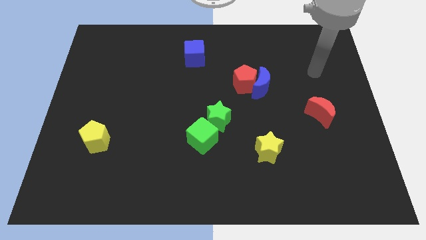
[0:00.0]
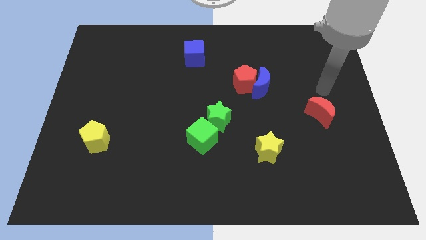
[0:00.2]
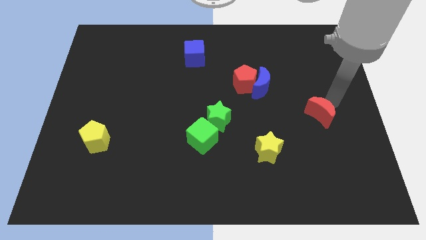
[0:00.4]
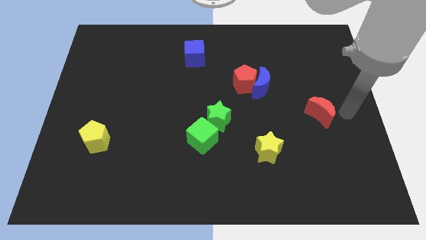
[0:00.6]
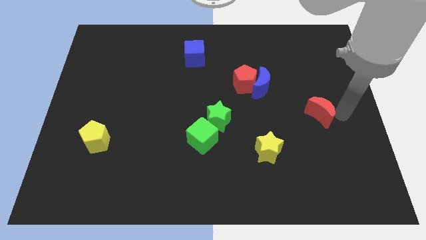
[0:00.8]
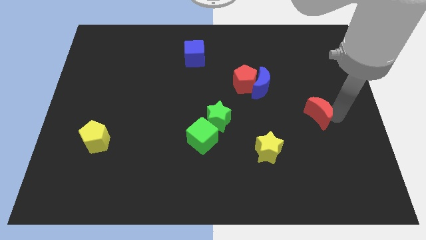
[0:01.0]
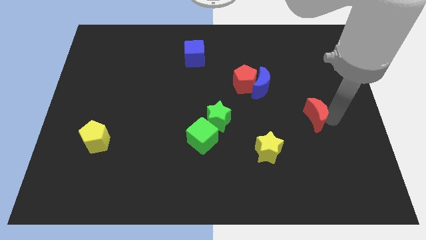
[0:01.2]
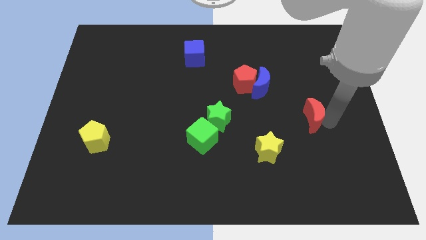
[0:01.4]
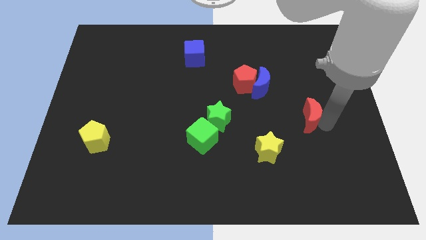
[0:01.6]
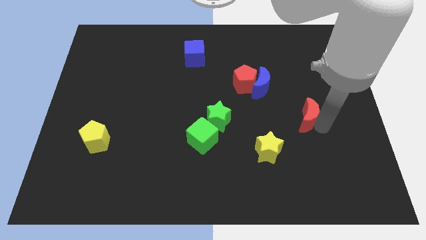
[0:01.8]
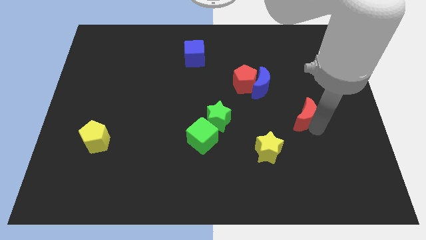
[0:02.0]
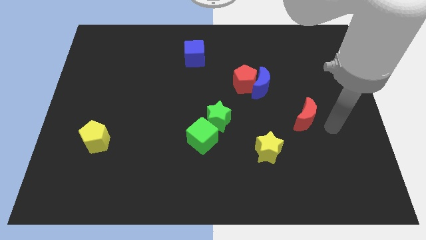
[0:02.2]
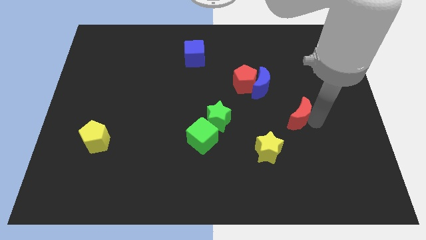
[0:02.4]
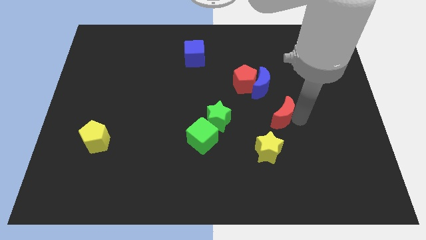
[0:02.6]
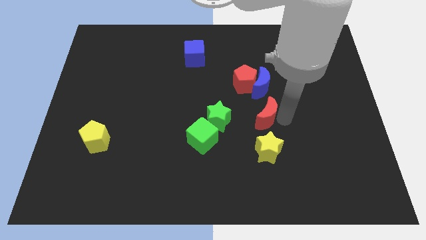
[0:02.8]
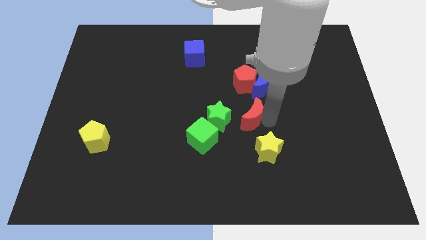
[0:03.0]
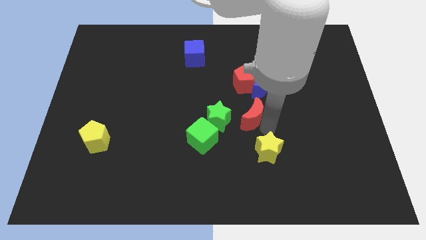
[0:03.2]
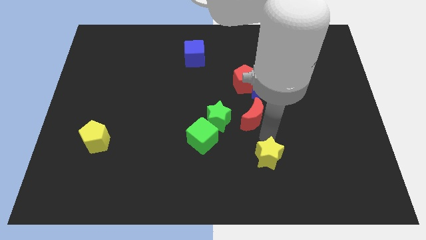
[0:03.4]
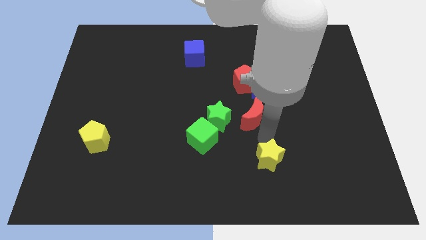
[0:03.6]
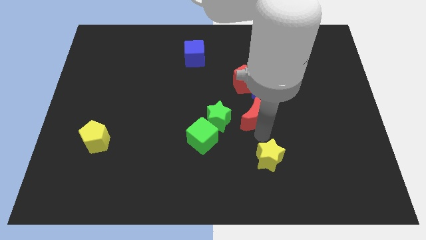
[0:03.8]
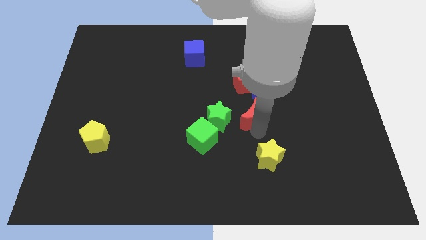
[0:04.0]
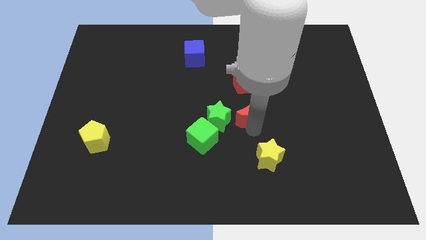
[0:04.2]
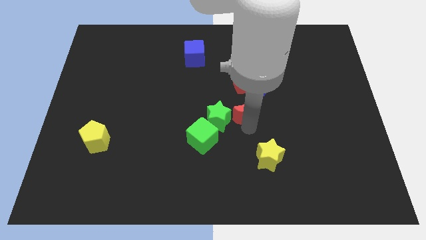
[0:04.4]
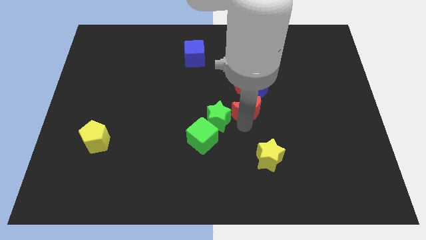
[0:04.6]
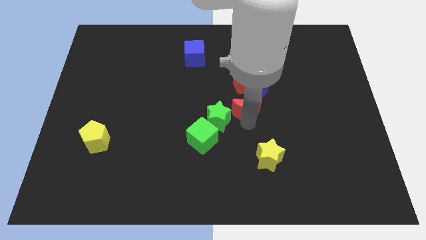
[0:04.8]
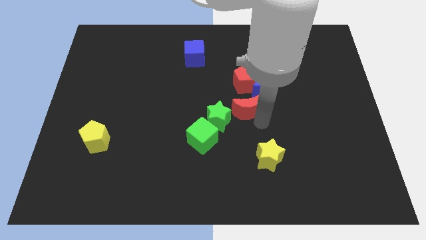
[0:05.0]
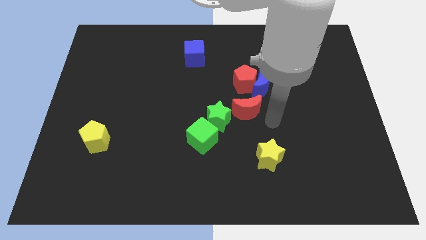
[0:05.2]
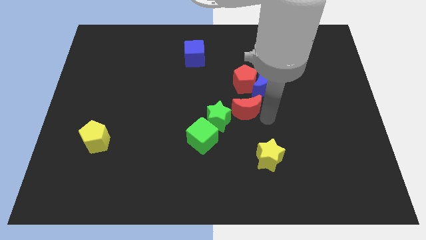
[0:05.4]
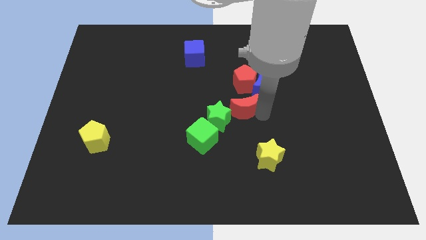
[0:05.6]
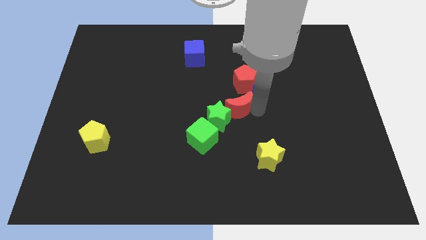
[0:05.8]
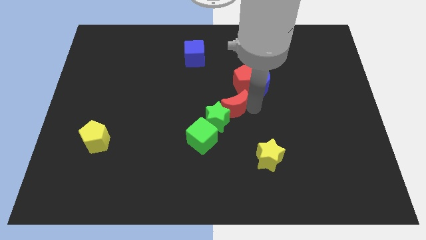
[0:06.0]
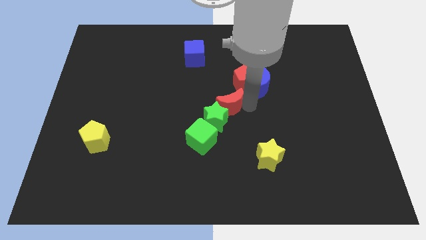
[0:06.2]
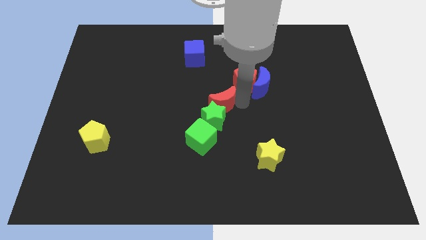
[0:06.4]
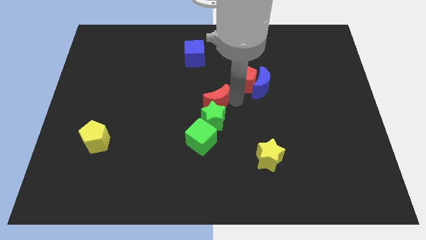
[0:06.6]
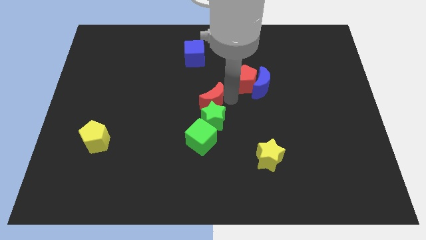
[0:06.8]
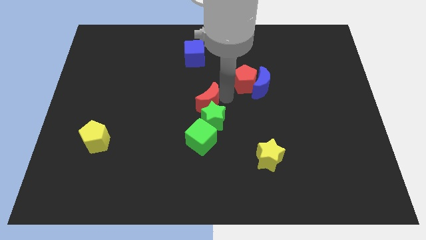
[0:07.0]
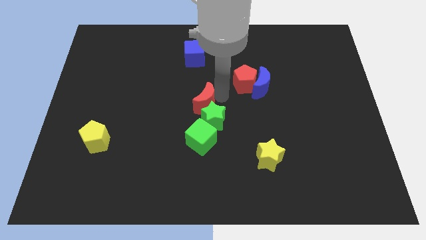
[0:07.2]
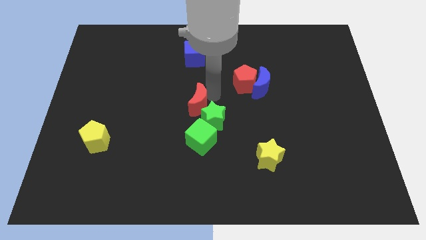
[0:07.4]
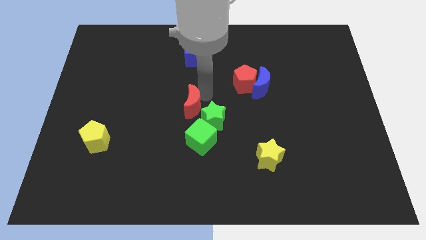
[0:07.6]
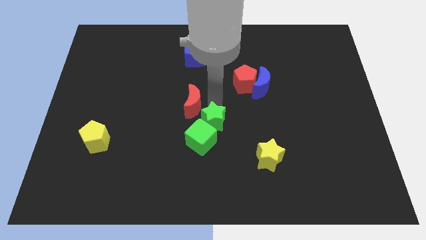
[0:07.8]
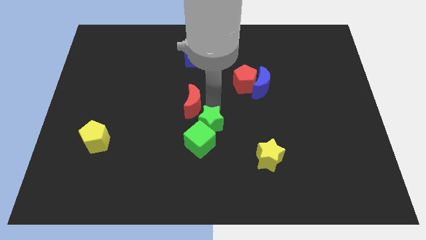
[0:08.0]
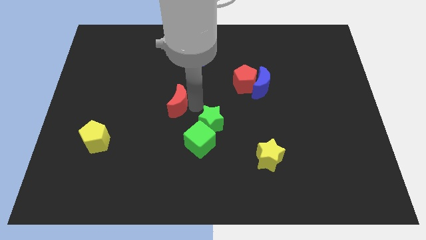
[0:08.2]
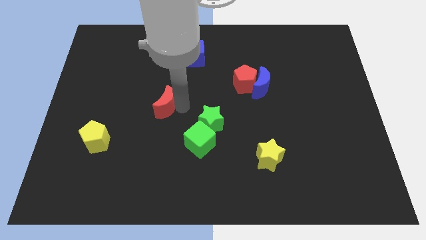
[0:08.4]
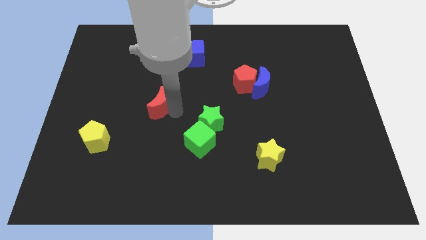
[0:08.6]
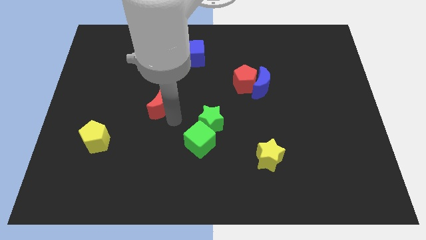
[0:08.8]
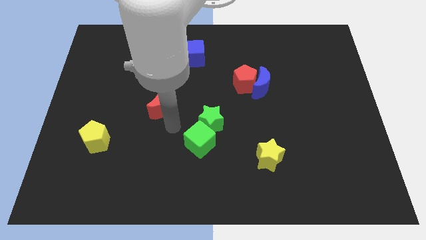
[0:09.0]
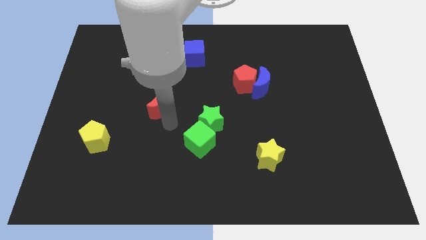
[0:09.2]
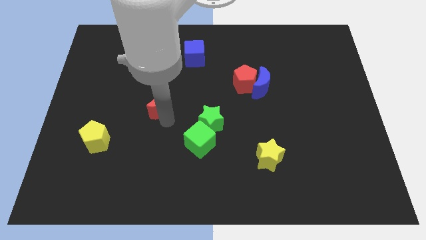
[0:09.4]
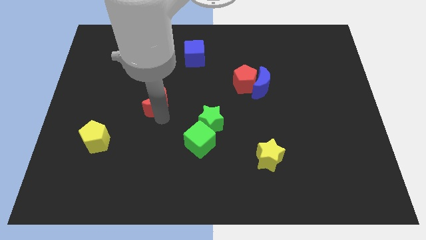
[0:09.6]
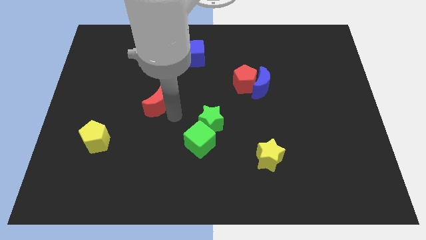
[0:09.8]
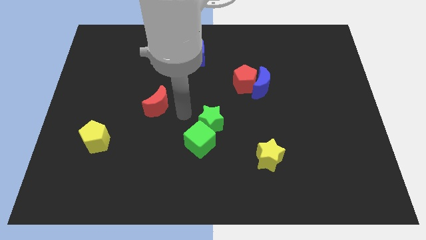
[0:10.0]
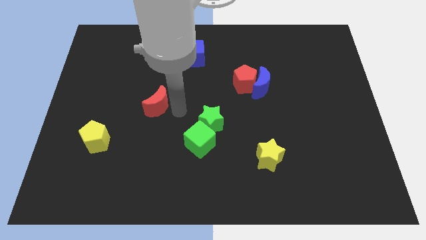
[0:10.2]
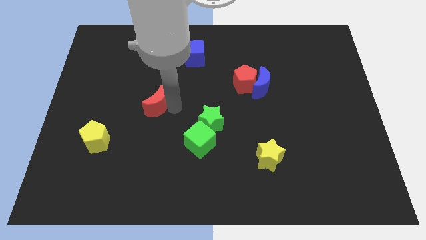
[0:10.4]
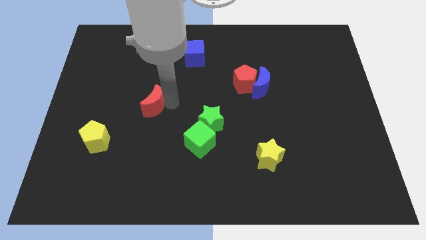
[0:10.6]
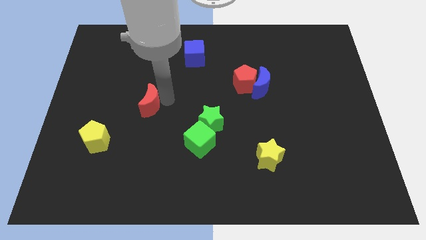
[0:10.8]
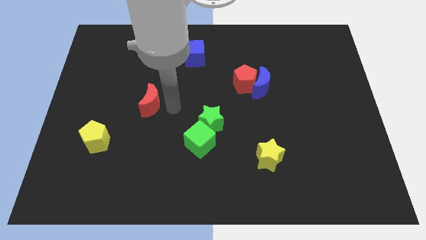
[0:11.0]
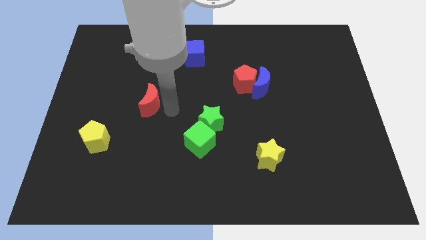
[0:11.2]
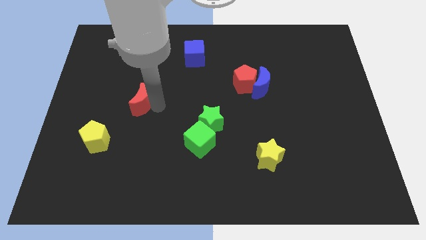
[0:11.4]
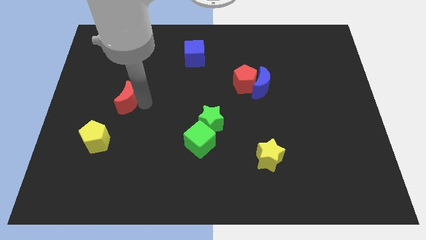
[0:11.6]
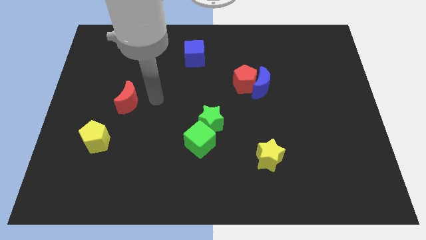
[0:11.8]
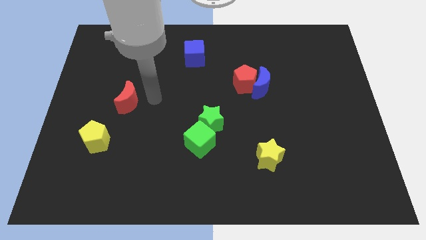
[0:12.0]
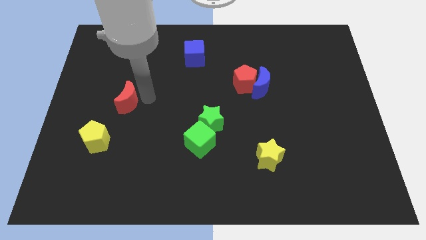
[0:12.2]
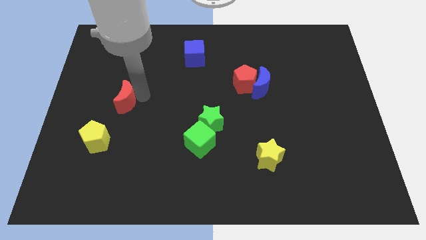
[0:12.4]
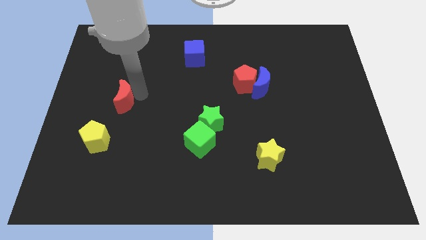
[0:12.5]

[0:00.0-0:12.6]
put the red moon to the top side of the yellow pentagon

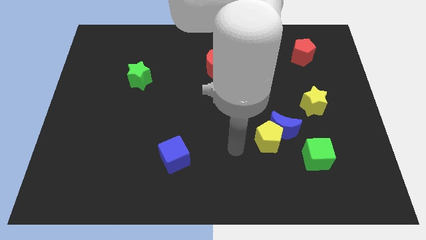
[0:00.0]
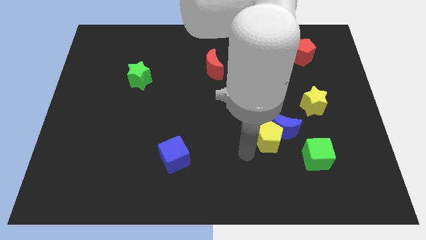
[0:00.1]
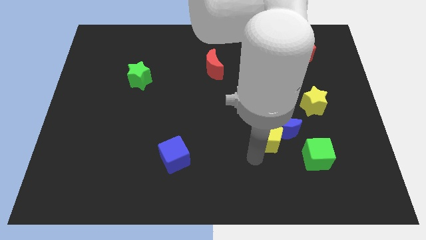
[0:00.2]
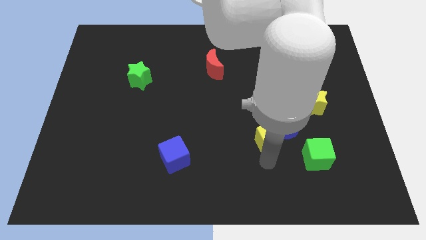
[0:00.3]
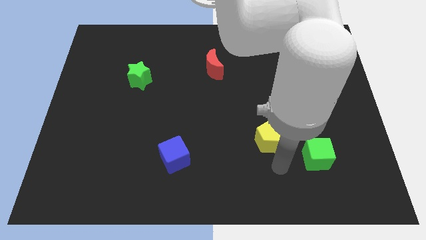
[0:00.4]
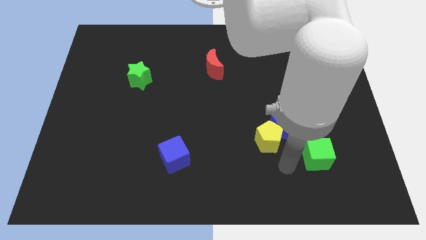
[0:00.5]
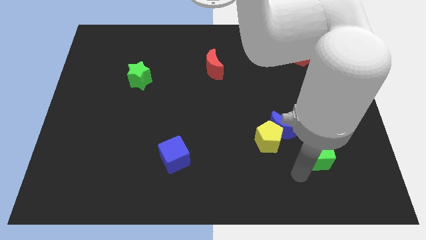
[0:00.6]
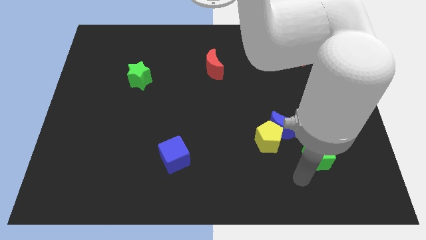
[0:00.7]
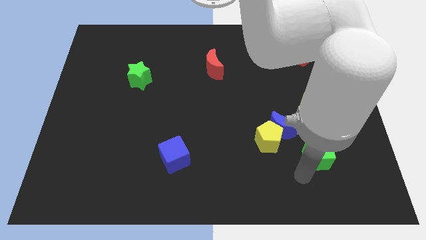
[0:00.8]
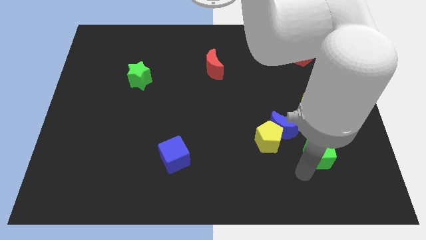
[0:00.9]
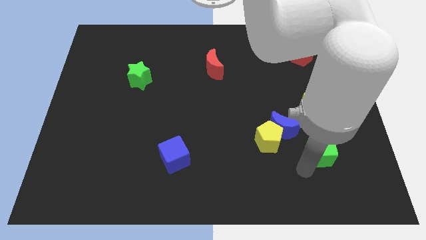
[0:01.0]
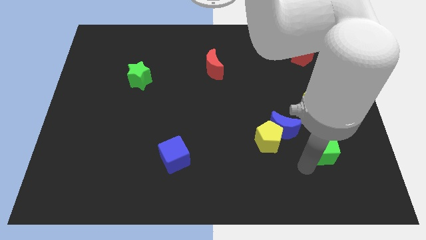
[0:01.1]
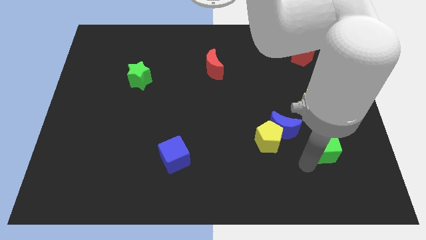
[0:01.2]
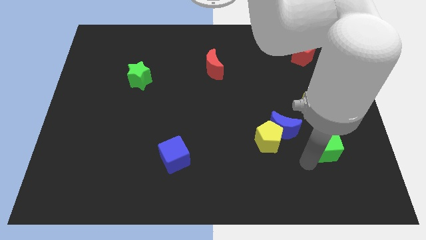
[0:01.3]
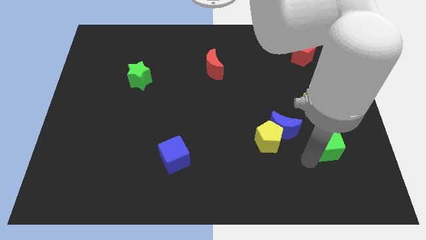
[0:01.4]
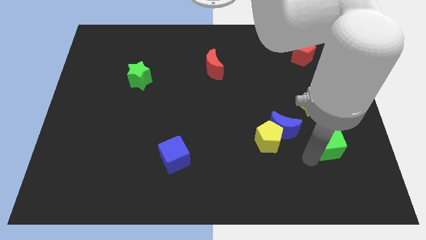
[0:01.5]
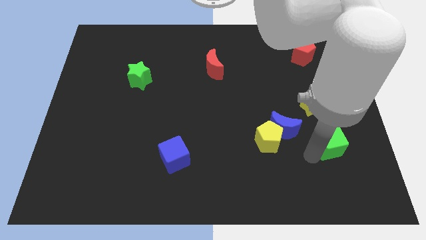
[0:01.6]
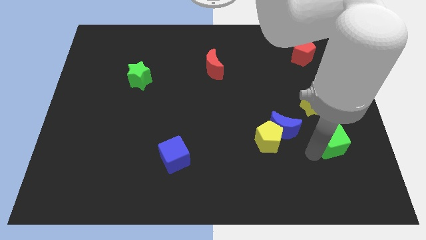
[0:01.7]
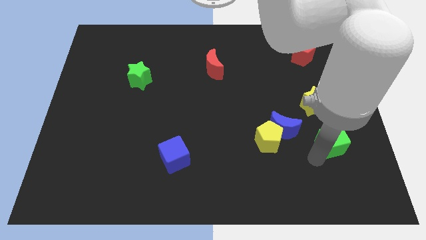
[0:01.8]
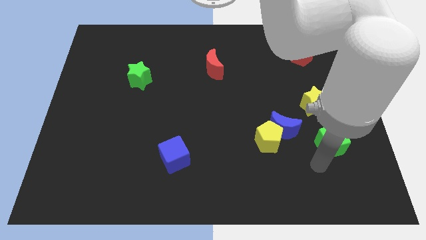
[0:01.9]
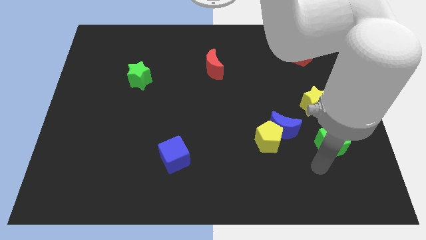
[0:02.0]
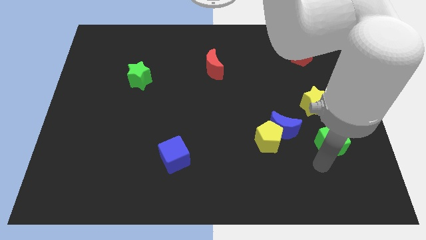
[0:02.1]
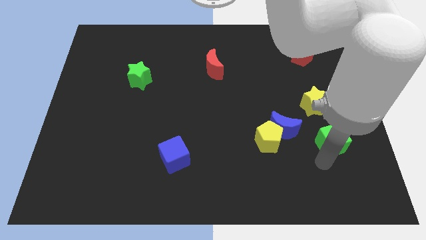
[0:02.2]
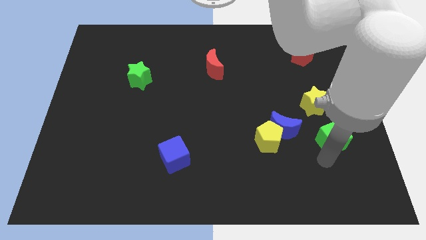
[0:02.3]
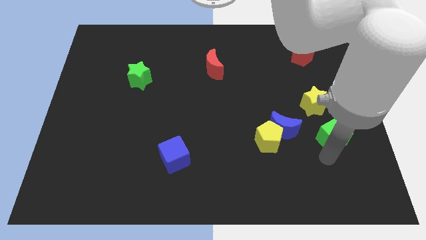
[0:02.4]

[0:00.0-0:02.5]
put the green cube to the bottom right side of the yellow star
